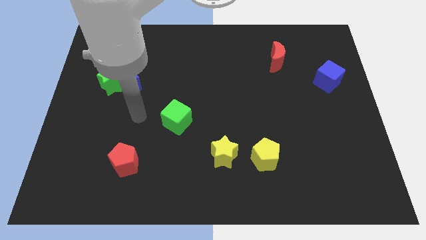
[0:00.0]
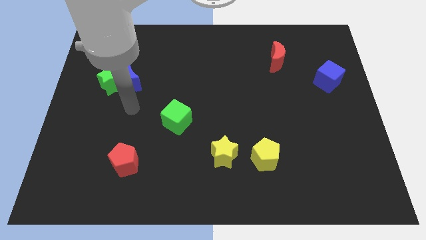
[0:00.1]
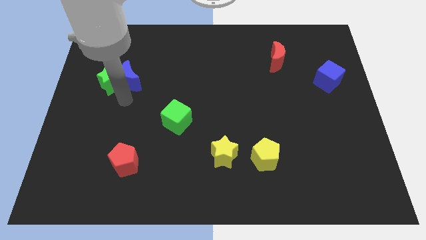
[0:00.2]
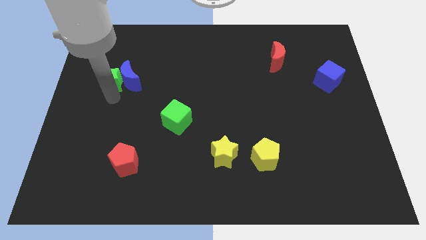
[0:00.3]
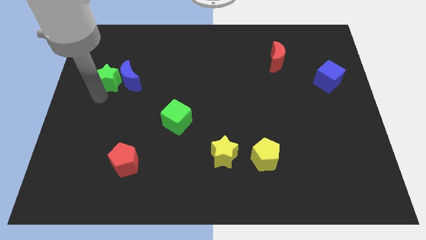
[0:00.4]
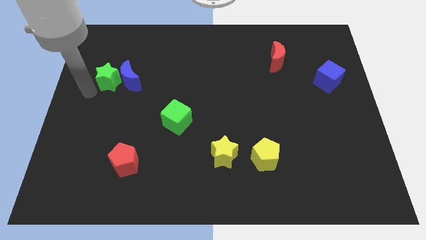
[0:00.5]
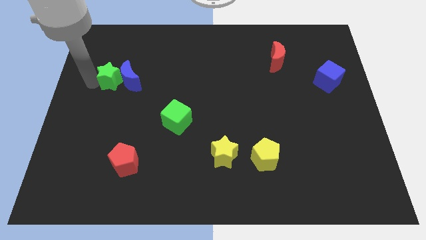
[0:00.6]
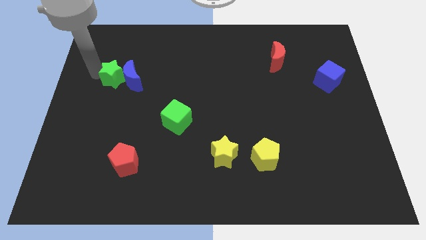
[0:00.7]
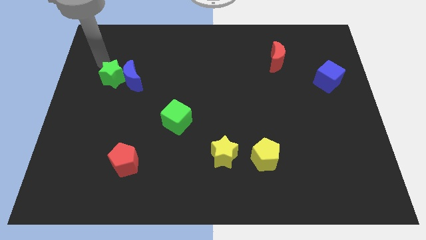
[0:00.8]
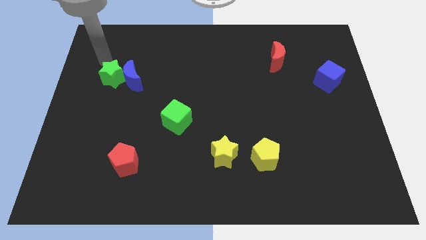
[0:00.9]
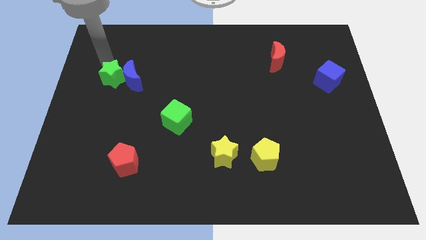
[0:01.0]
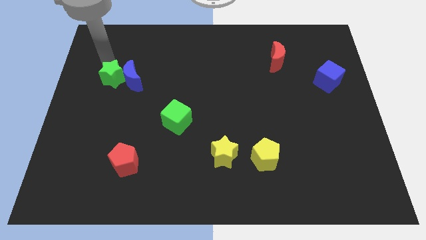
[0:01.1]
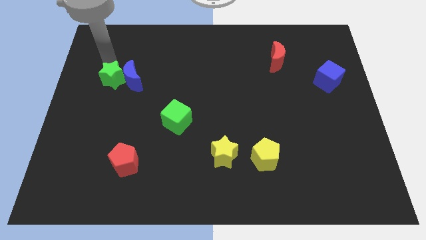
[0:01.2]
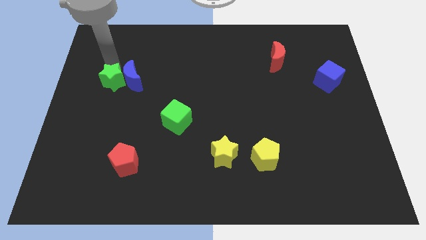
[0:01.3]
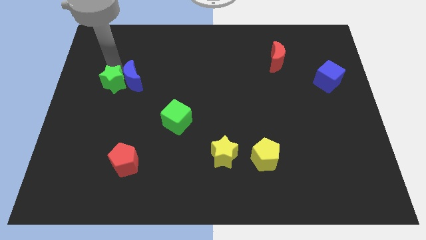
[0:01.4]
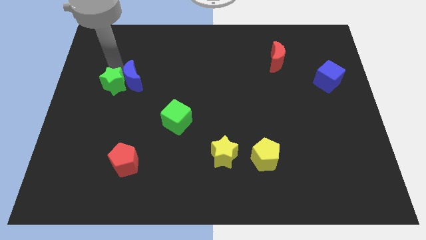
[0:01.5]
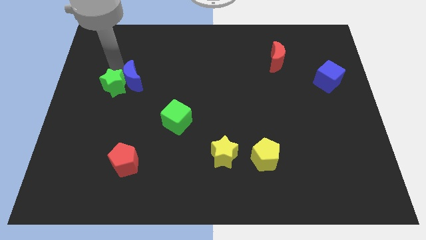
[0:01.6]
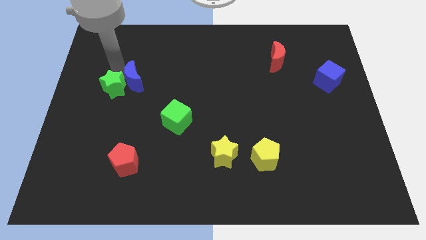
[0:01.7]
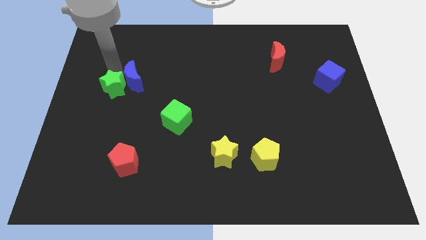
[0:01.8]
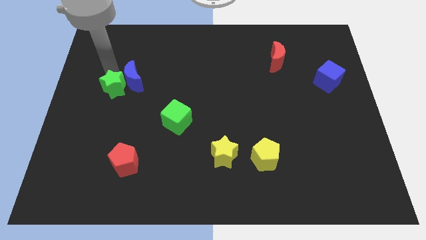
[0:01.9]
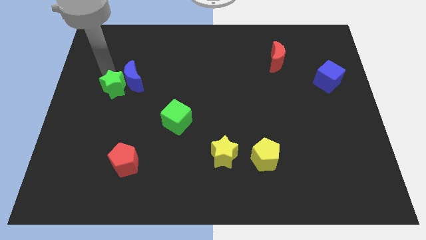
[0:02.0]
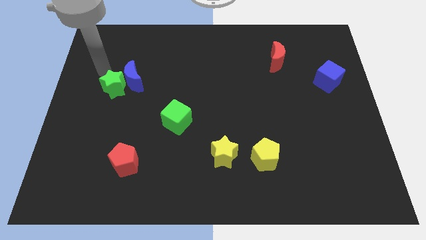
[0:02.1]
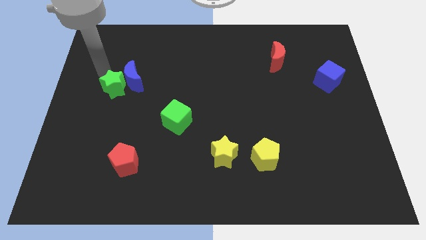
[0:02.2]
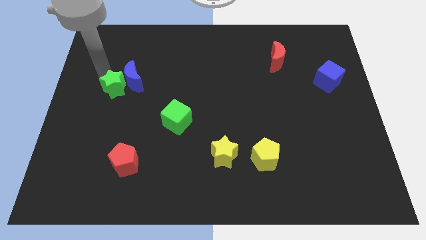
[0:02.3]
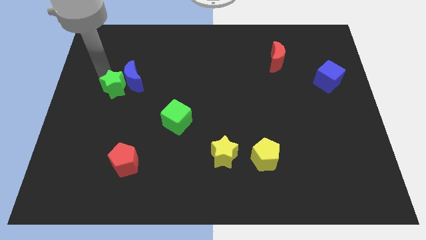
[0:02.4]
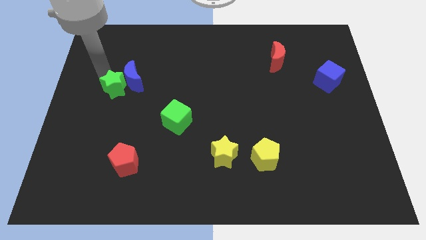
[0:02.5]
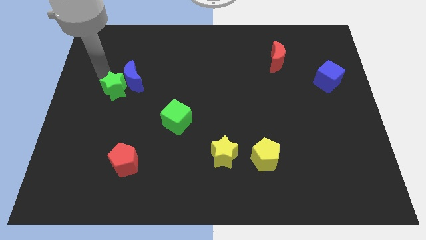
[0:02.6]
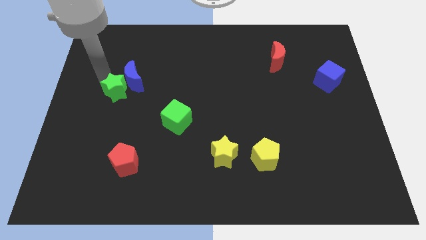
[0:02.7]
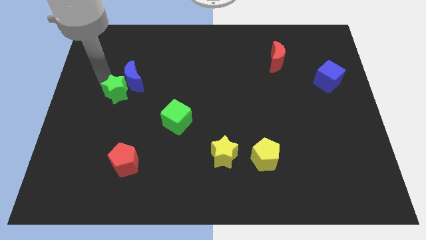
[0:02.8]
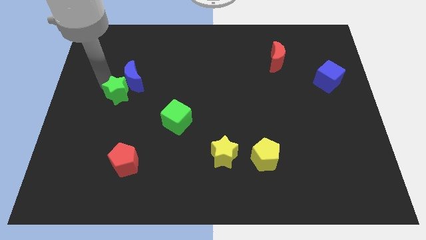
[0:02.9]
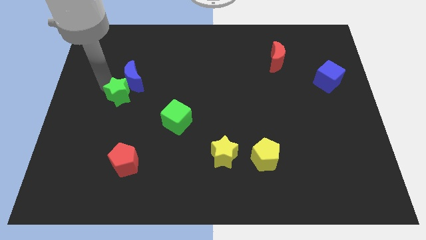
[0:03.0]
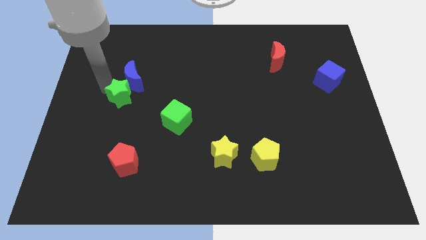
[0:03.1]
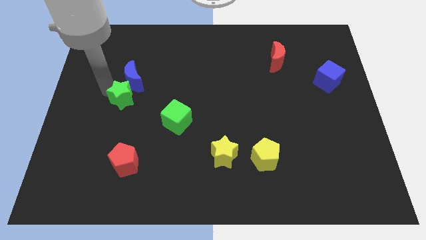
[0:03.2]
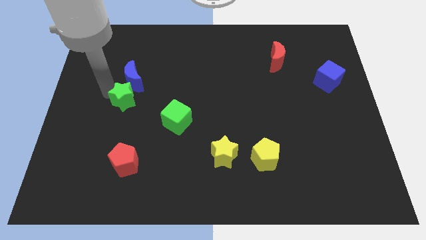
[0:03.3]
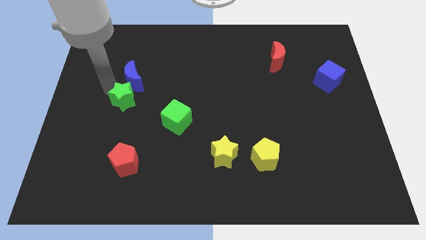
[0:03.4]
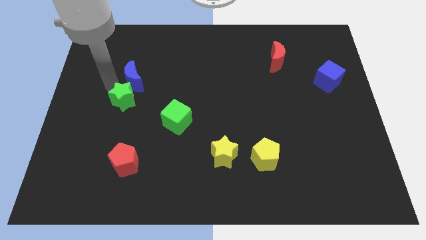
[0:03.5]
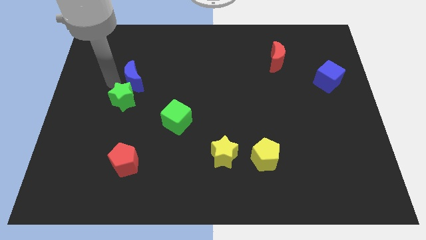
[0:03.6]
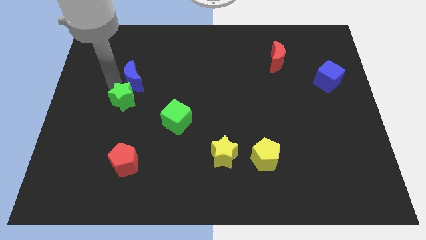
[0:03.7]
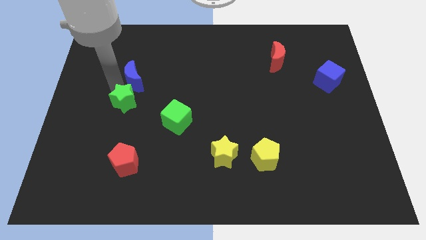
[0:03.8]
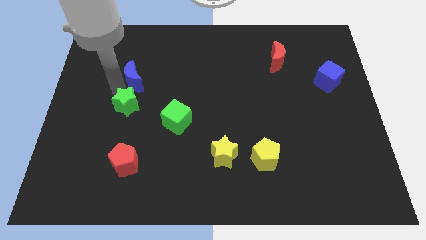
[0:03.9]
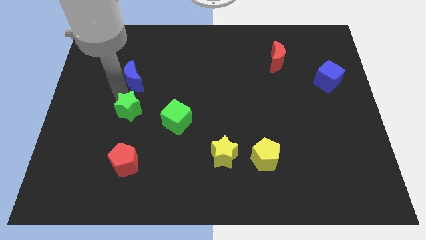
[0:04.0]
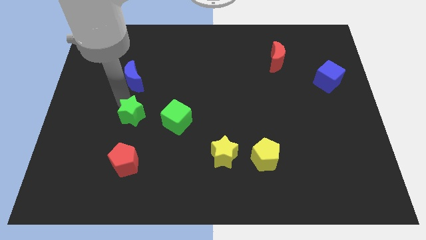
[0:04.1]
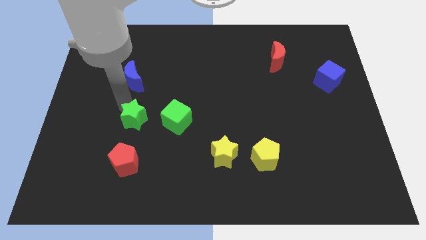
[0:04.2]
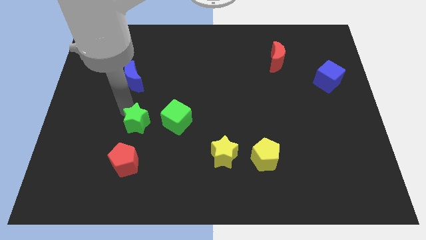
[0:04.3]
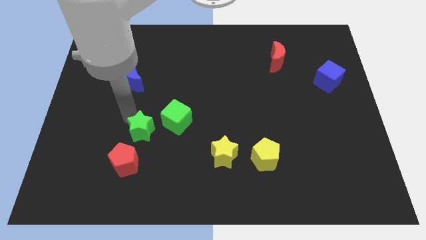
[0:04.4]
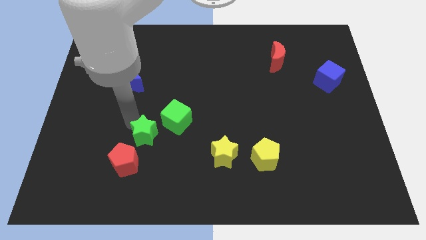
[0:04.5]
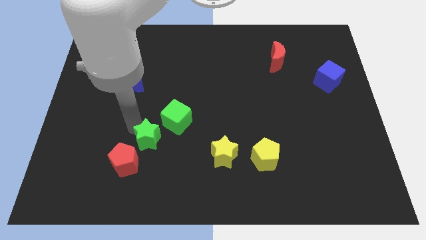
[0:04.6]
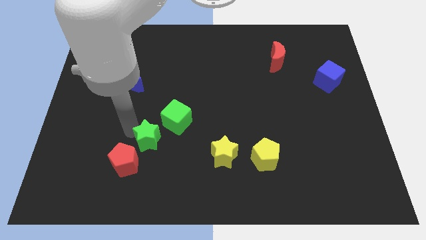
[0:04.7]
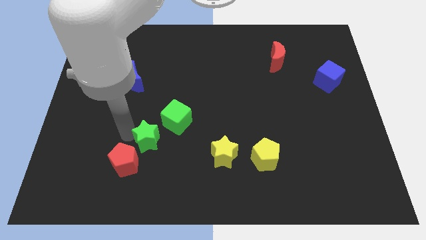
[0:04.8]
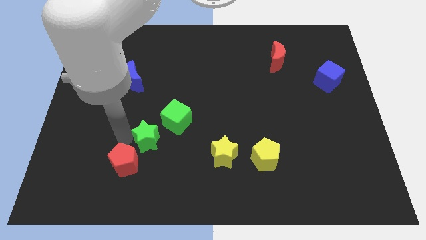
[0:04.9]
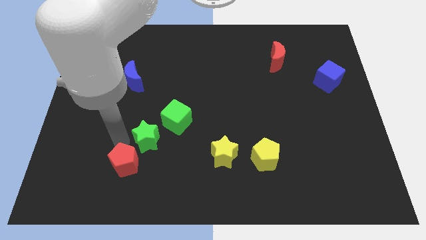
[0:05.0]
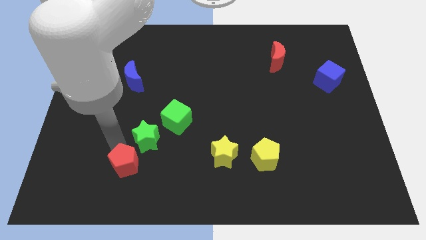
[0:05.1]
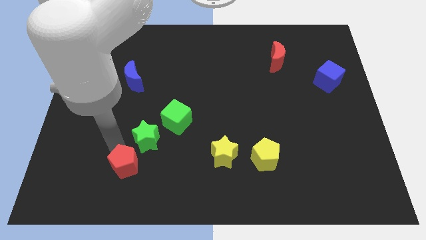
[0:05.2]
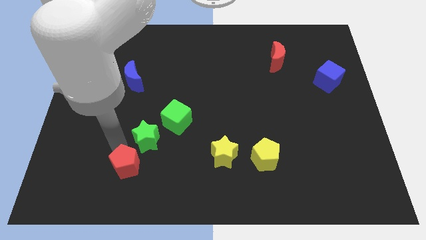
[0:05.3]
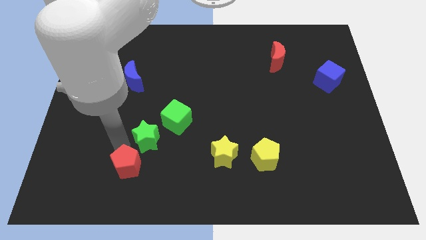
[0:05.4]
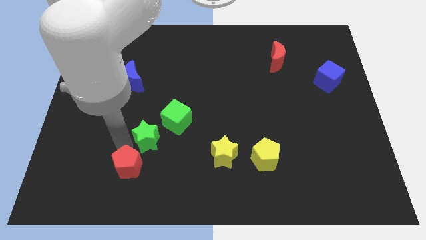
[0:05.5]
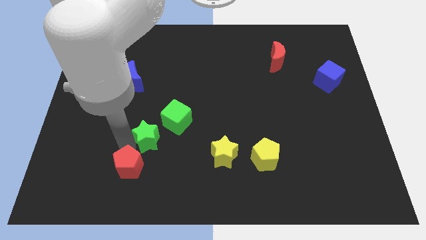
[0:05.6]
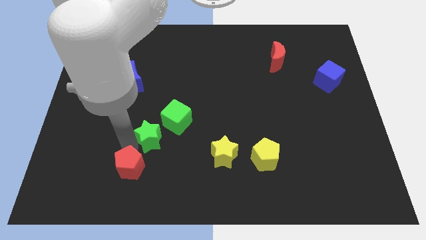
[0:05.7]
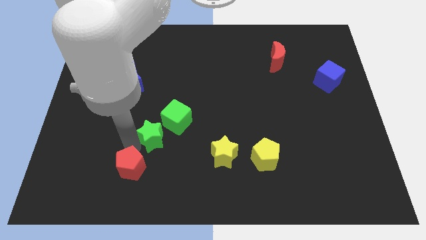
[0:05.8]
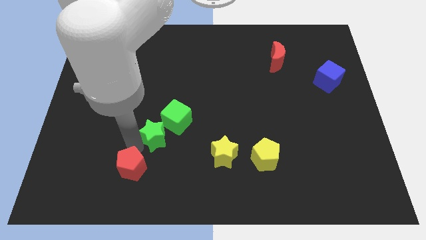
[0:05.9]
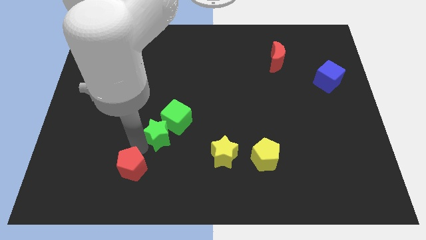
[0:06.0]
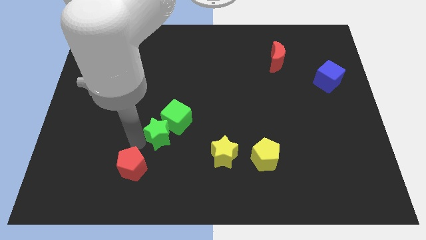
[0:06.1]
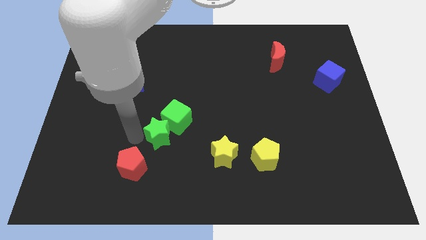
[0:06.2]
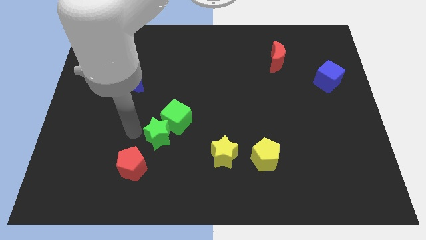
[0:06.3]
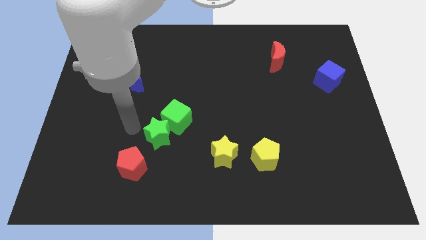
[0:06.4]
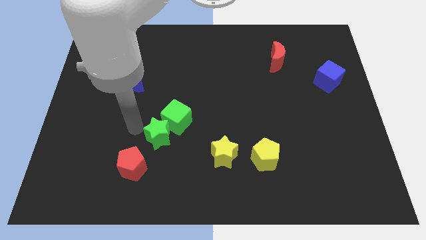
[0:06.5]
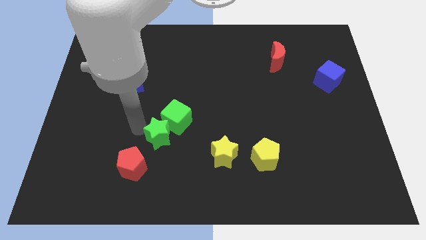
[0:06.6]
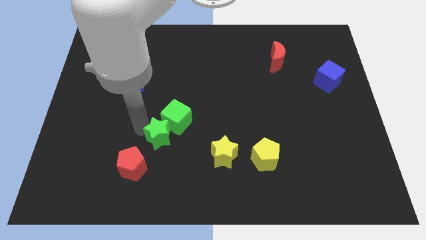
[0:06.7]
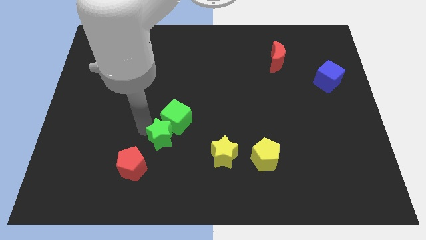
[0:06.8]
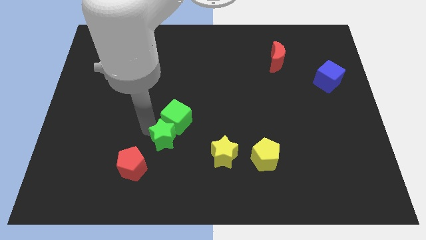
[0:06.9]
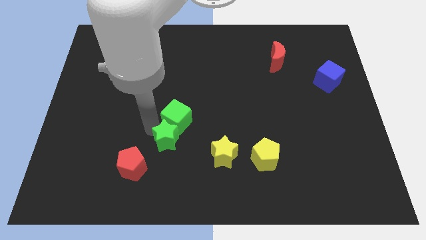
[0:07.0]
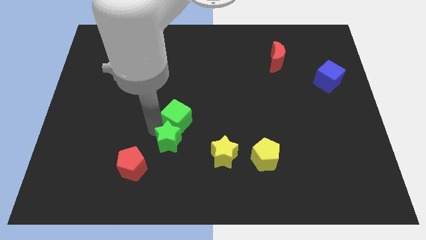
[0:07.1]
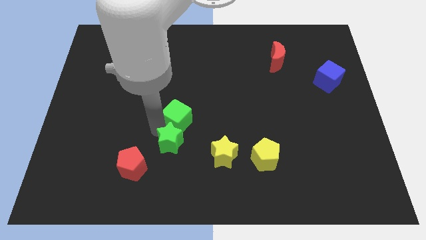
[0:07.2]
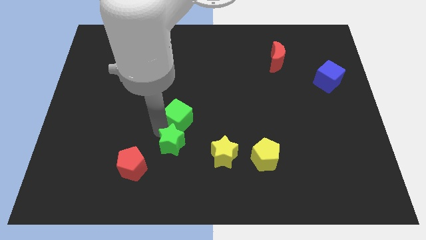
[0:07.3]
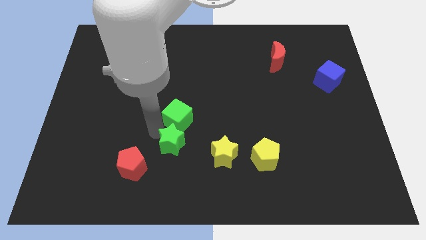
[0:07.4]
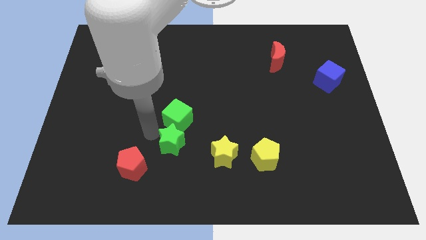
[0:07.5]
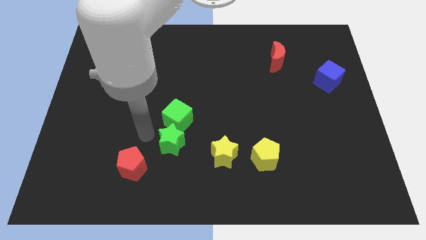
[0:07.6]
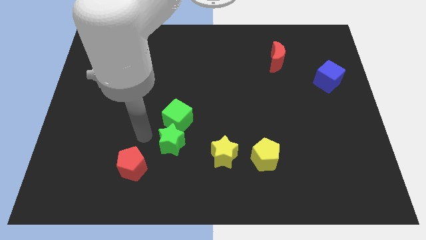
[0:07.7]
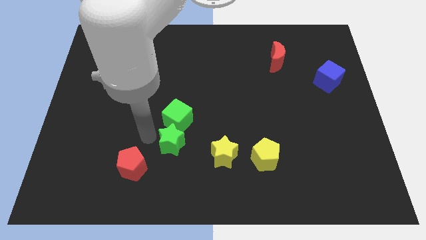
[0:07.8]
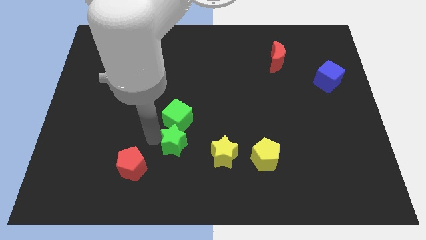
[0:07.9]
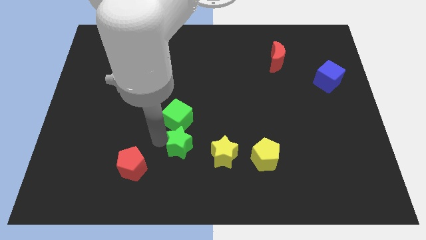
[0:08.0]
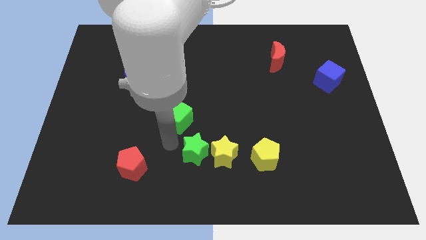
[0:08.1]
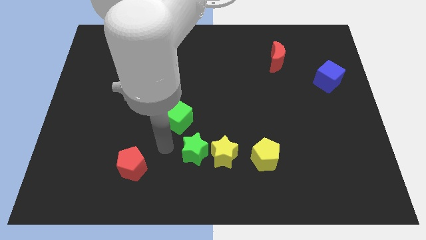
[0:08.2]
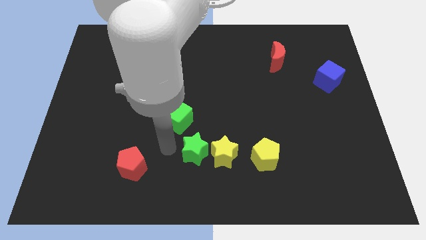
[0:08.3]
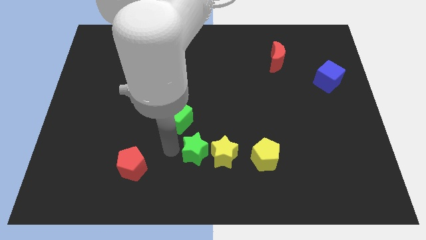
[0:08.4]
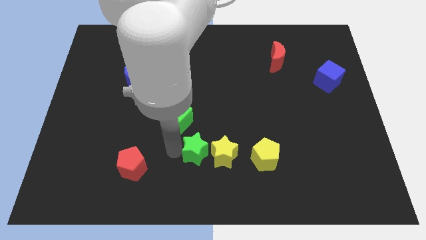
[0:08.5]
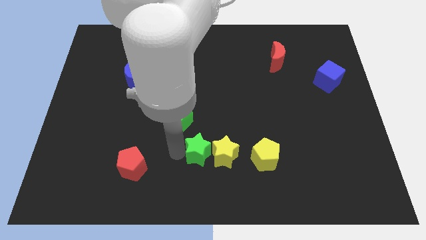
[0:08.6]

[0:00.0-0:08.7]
put the green star close to the yellow star
